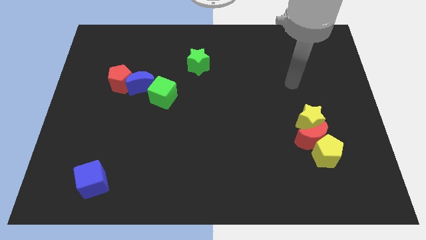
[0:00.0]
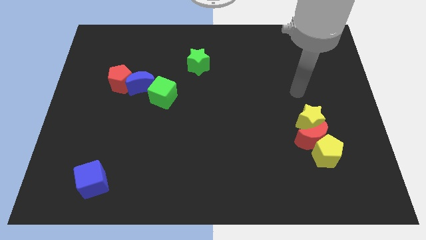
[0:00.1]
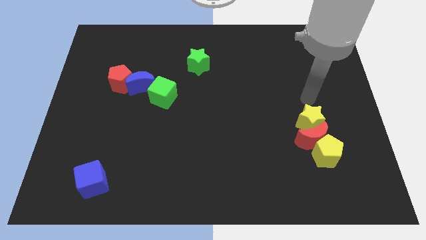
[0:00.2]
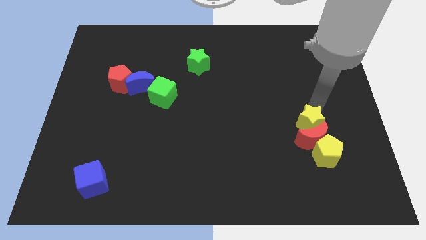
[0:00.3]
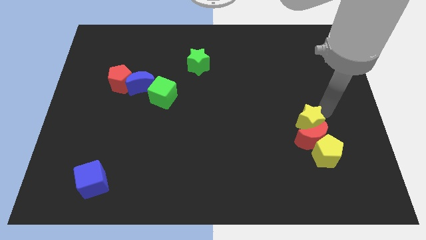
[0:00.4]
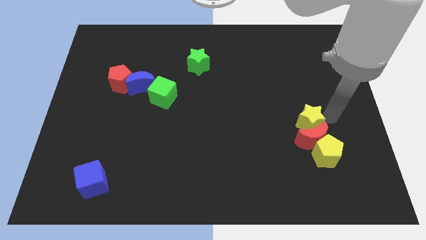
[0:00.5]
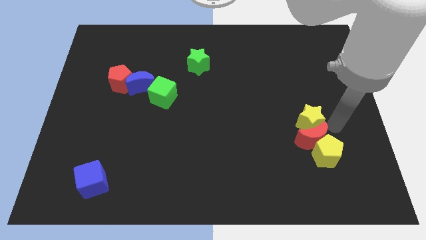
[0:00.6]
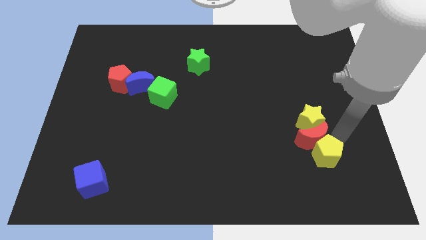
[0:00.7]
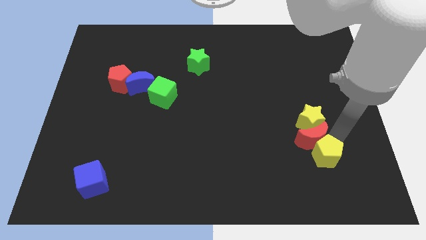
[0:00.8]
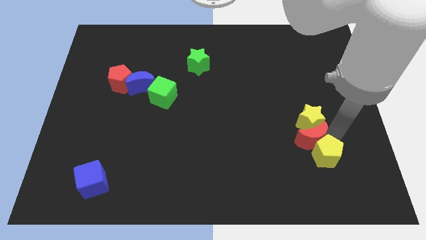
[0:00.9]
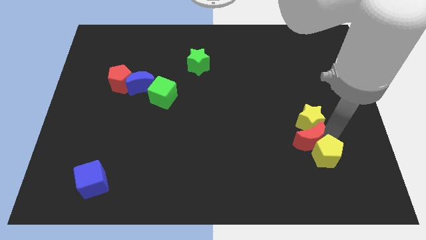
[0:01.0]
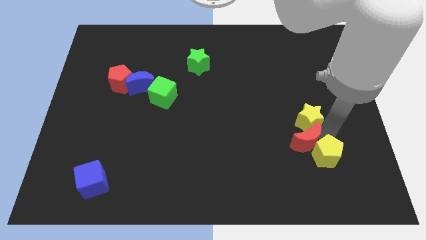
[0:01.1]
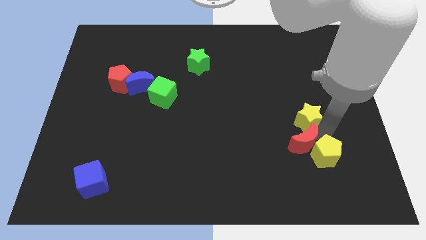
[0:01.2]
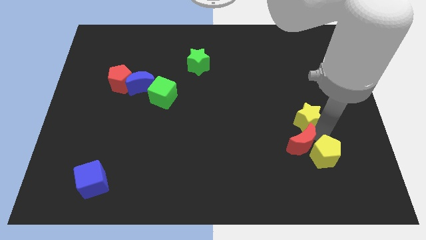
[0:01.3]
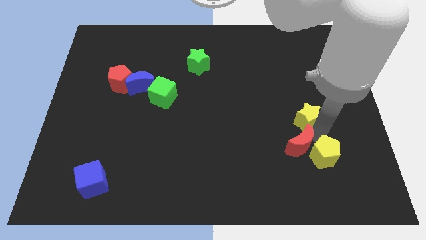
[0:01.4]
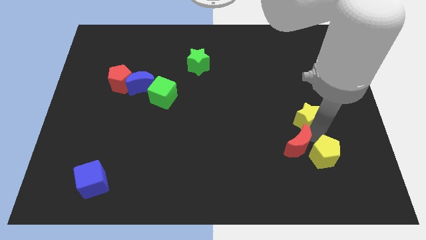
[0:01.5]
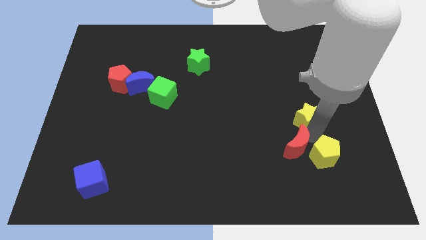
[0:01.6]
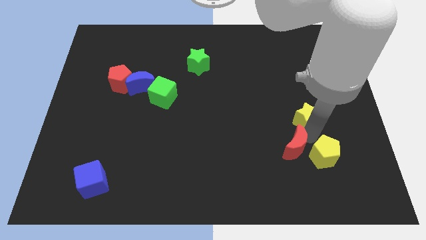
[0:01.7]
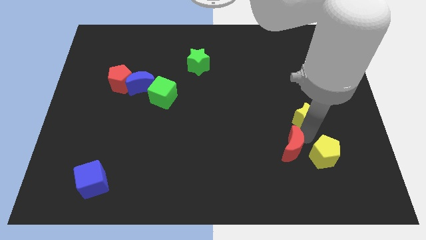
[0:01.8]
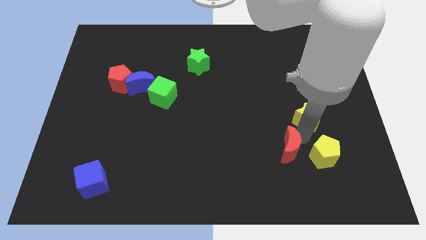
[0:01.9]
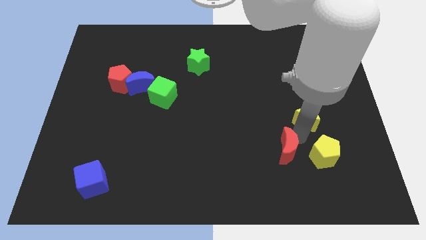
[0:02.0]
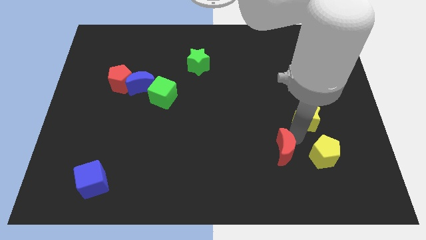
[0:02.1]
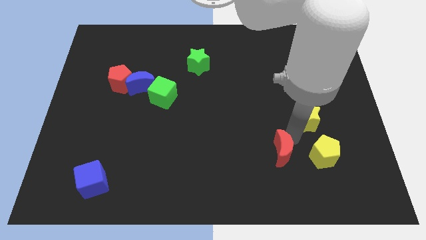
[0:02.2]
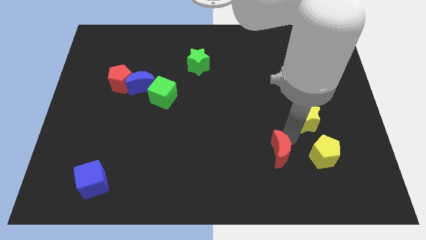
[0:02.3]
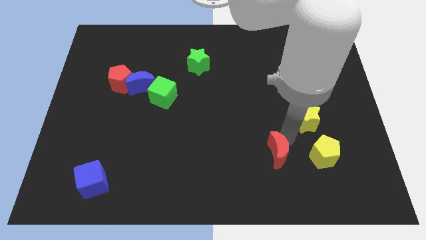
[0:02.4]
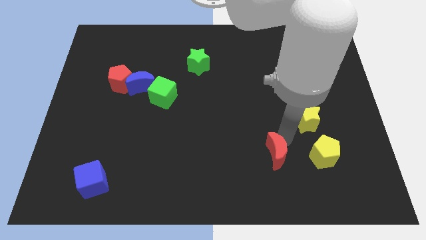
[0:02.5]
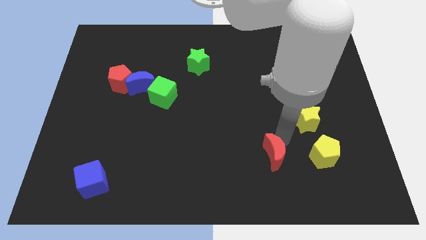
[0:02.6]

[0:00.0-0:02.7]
separate the red moon from the yellow pentagon and yellow star

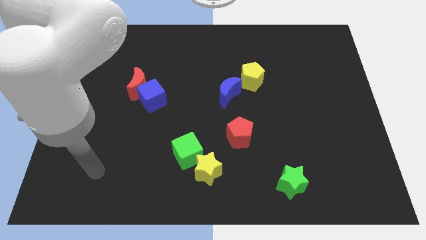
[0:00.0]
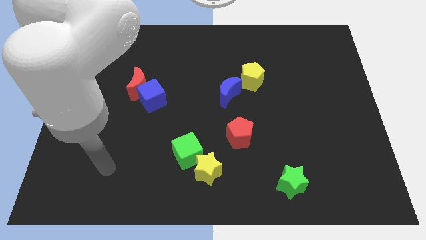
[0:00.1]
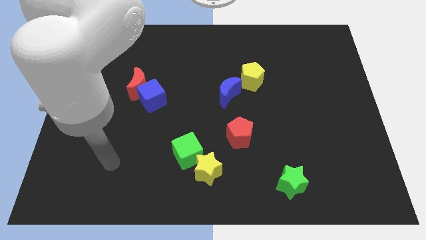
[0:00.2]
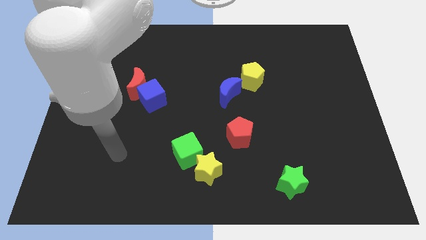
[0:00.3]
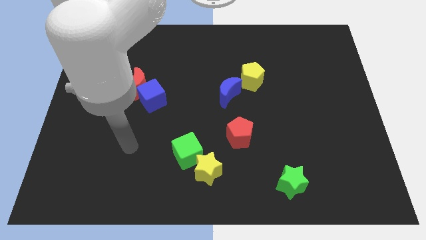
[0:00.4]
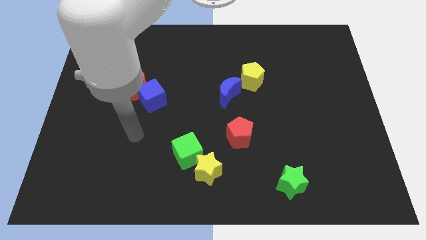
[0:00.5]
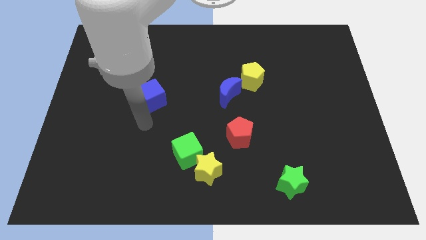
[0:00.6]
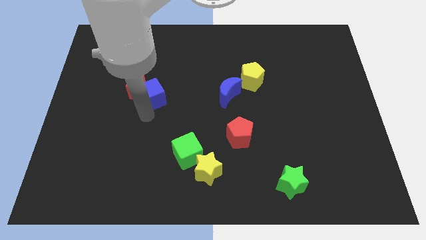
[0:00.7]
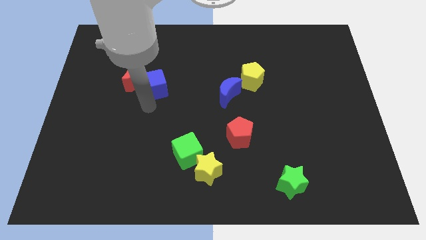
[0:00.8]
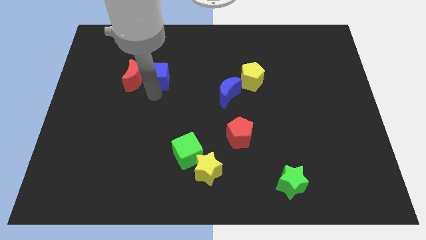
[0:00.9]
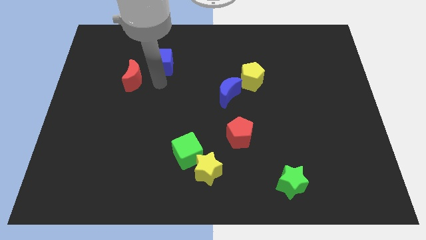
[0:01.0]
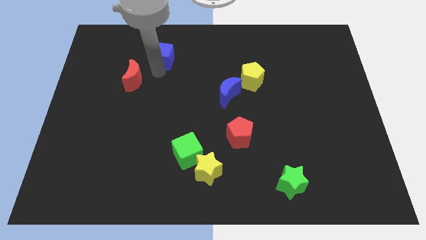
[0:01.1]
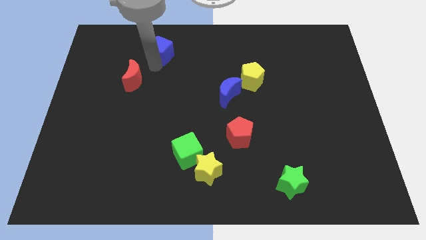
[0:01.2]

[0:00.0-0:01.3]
separate the red moon from the blue cube

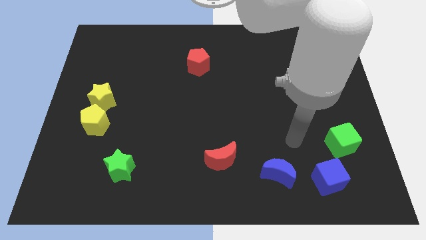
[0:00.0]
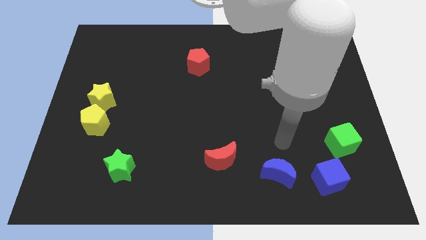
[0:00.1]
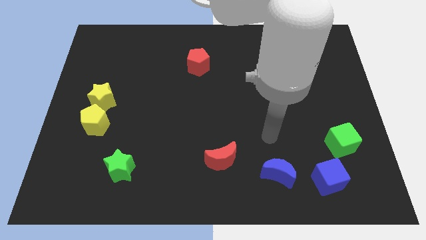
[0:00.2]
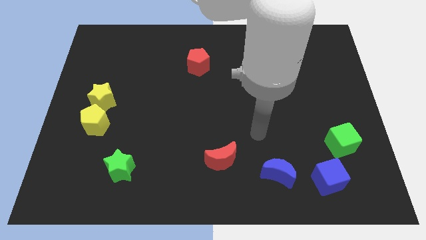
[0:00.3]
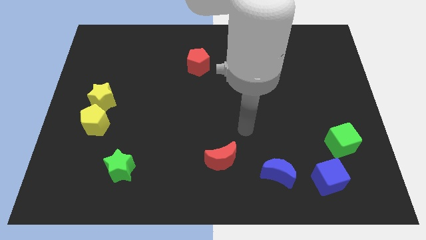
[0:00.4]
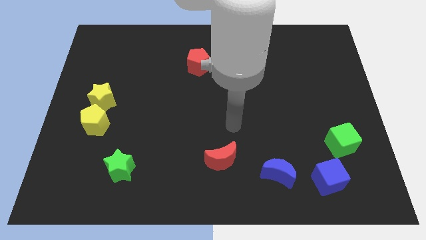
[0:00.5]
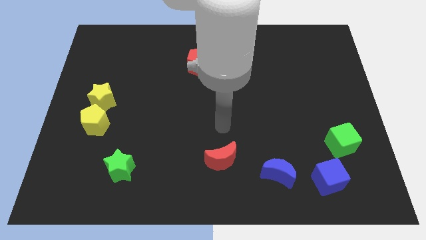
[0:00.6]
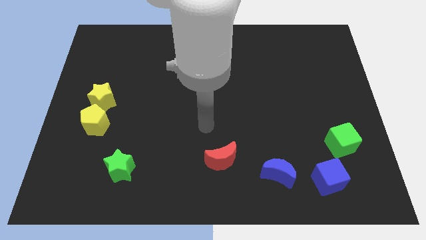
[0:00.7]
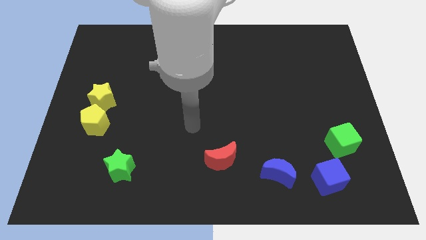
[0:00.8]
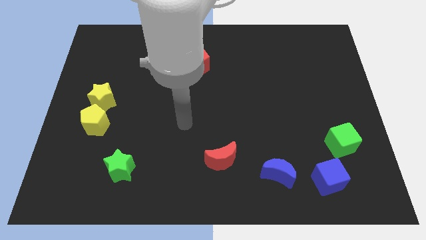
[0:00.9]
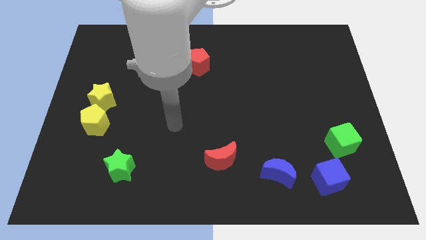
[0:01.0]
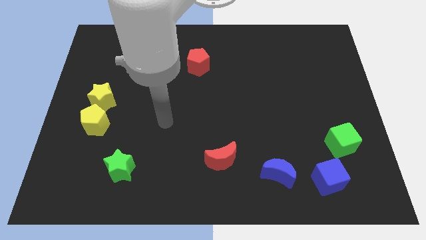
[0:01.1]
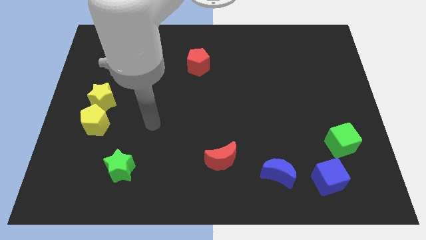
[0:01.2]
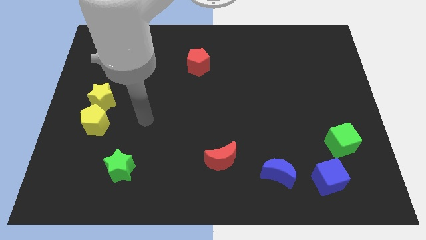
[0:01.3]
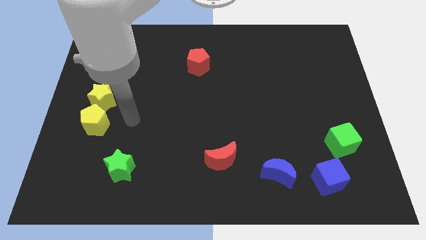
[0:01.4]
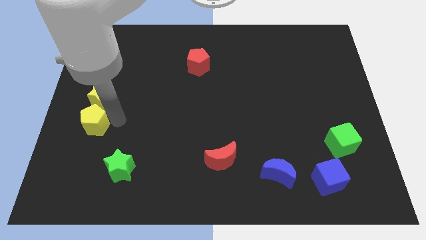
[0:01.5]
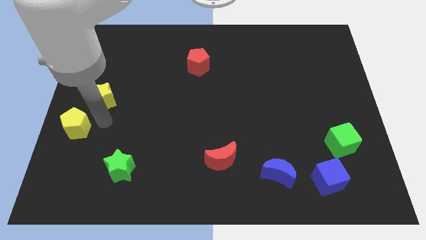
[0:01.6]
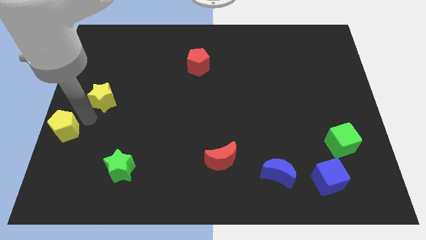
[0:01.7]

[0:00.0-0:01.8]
separate the yellow star from the yellow pentagon

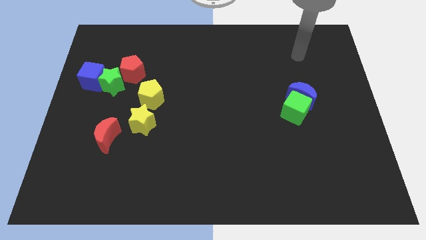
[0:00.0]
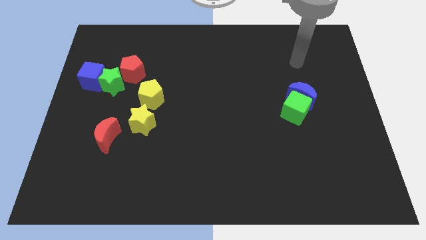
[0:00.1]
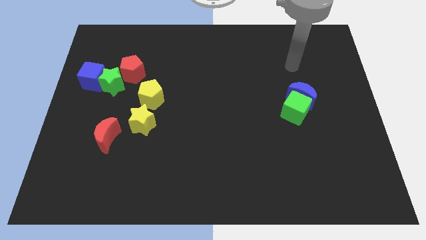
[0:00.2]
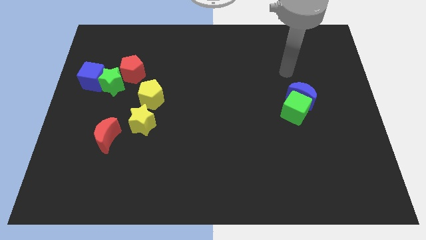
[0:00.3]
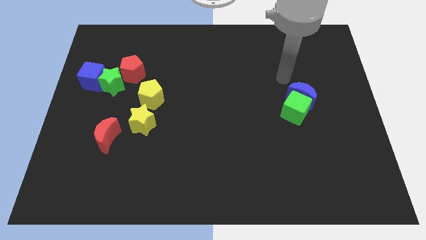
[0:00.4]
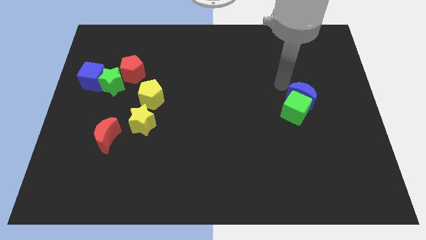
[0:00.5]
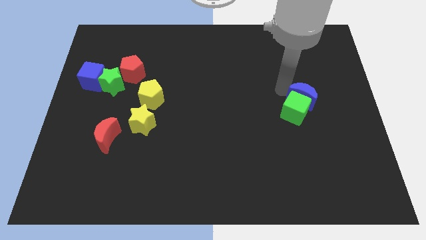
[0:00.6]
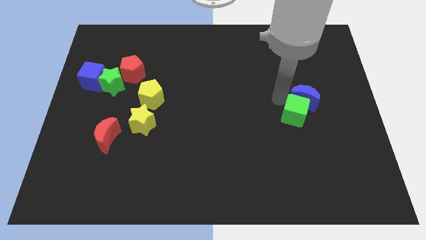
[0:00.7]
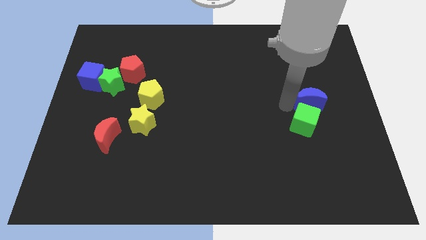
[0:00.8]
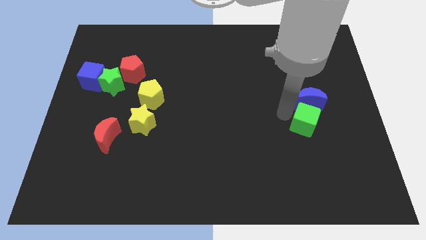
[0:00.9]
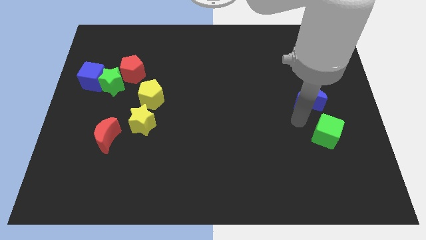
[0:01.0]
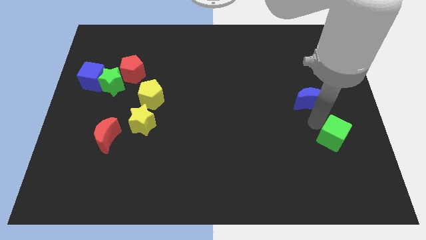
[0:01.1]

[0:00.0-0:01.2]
separate the blue moon from the green cube

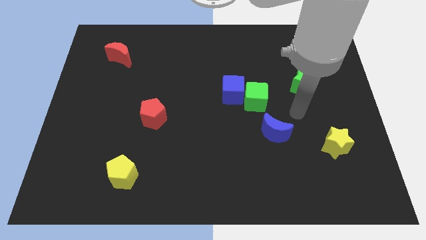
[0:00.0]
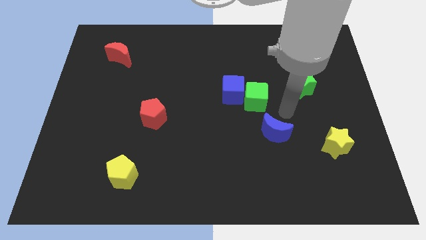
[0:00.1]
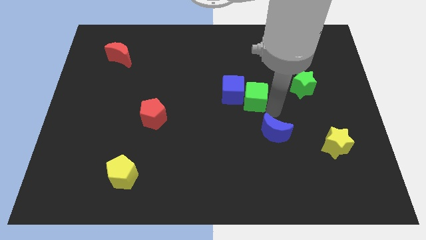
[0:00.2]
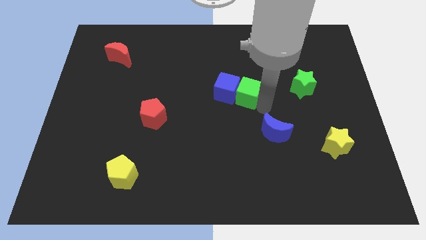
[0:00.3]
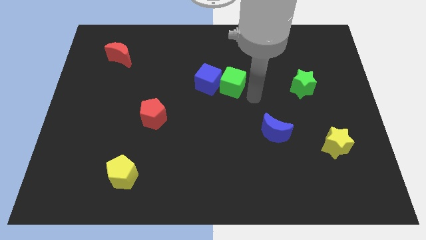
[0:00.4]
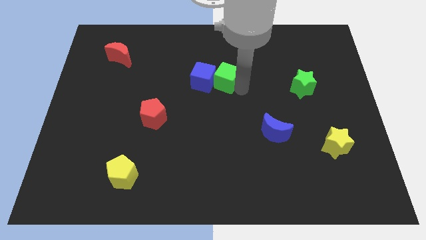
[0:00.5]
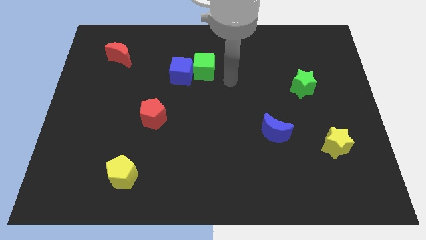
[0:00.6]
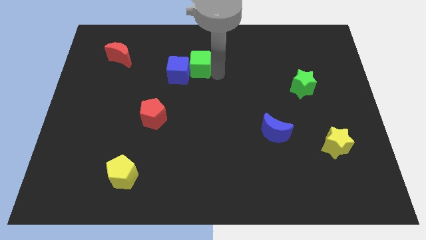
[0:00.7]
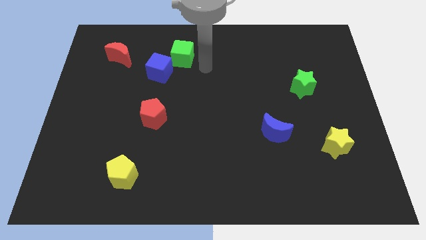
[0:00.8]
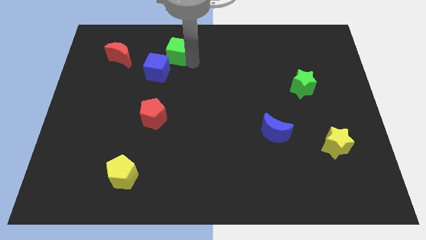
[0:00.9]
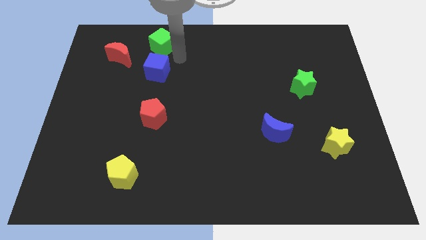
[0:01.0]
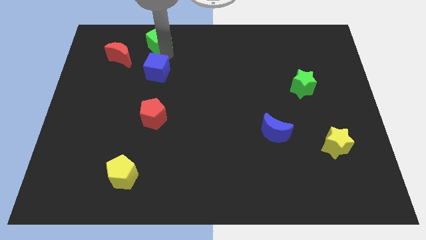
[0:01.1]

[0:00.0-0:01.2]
pull the blue cube apart from the green cube

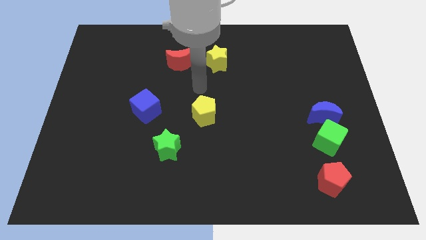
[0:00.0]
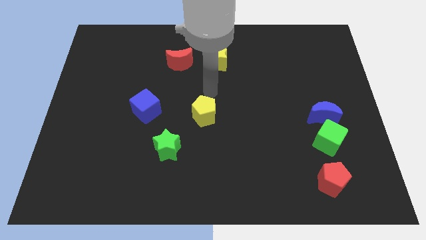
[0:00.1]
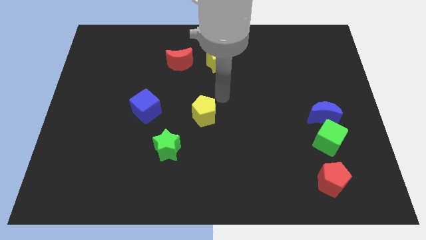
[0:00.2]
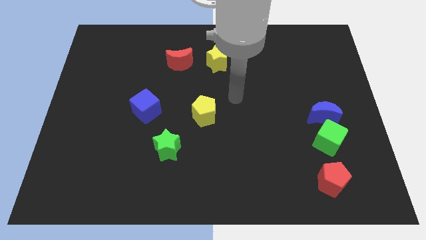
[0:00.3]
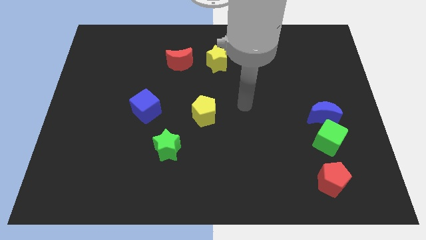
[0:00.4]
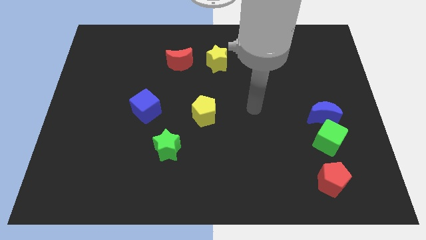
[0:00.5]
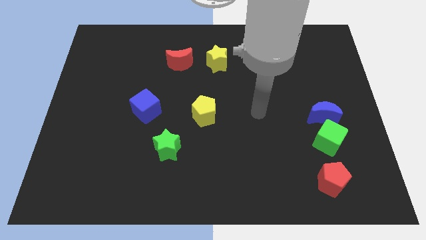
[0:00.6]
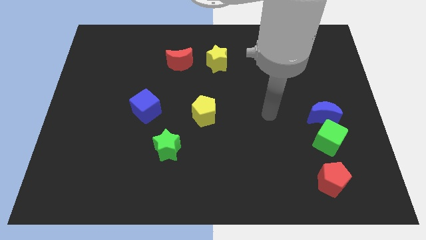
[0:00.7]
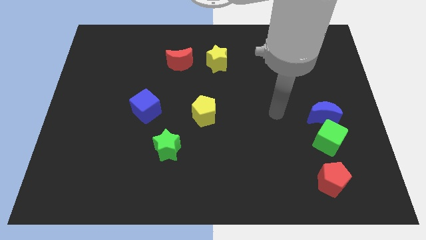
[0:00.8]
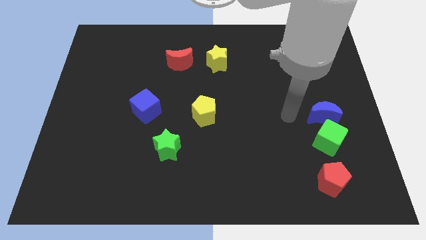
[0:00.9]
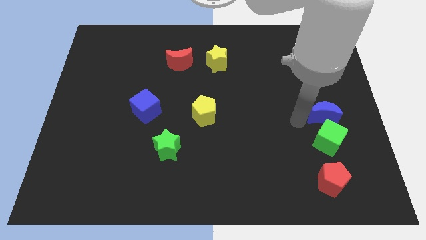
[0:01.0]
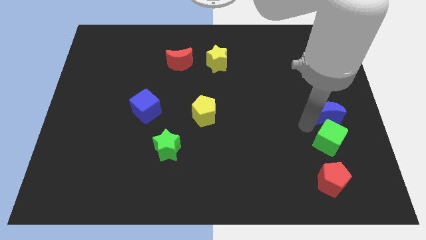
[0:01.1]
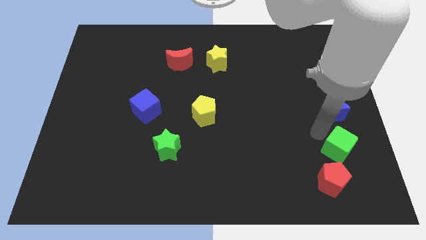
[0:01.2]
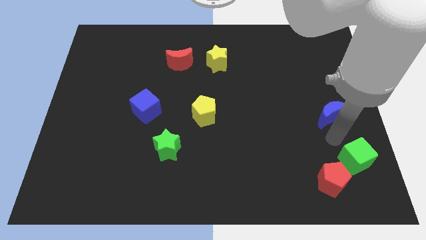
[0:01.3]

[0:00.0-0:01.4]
move the blue moon away from the green cube
